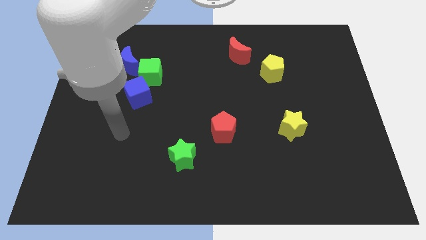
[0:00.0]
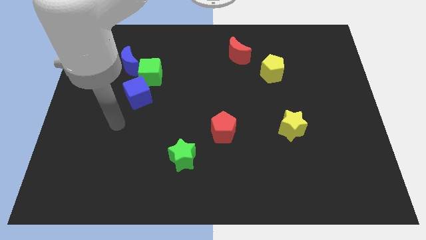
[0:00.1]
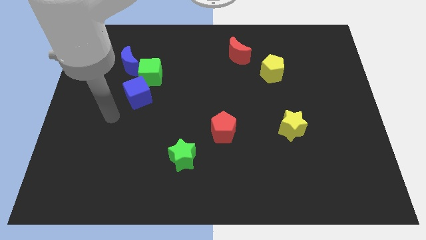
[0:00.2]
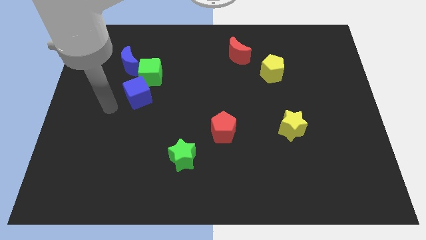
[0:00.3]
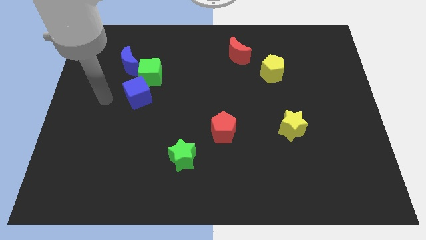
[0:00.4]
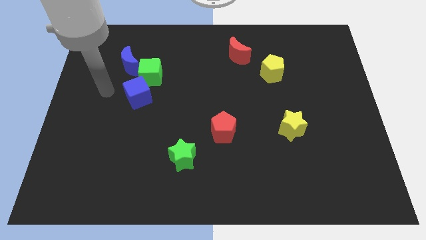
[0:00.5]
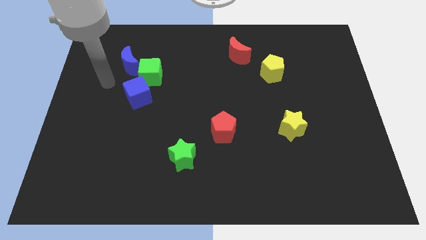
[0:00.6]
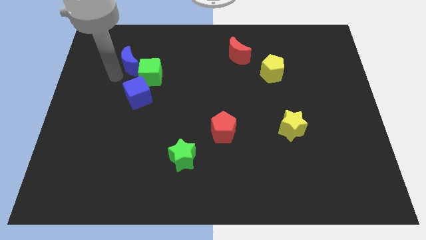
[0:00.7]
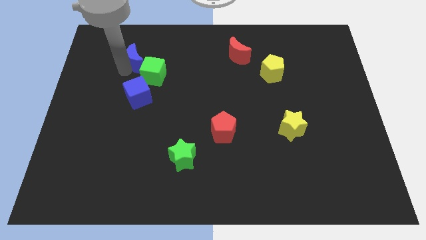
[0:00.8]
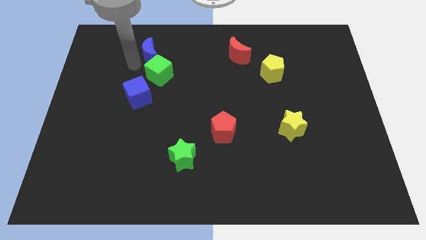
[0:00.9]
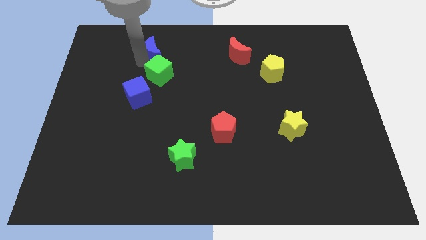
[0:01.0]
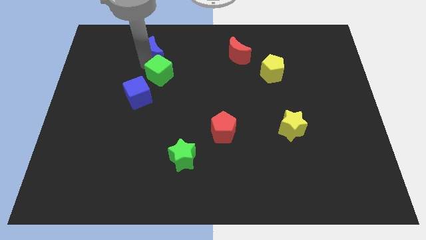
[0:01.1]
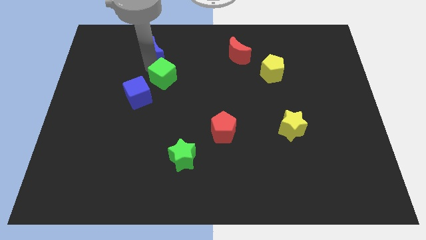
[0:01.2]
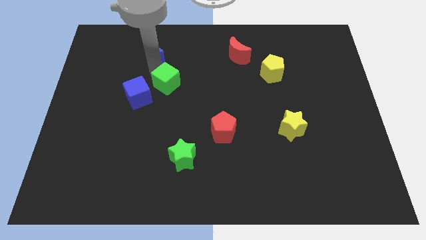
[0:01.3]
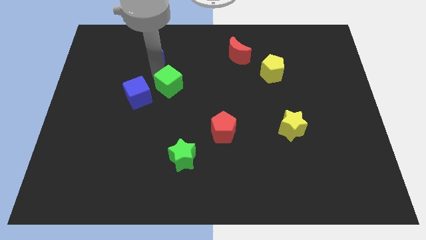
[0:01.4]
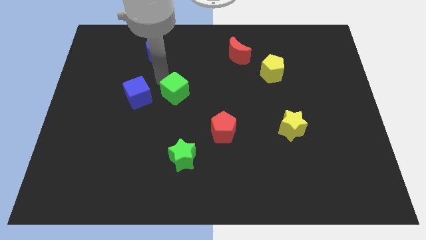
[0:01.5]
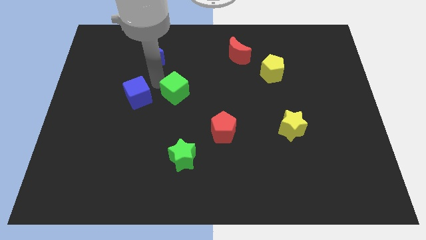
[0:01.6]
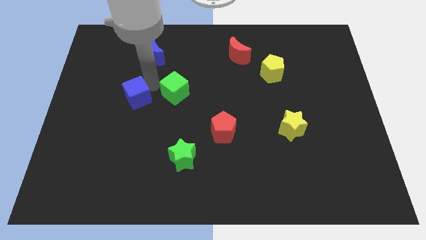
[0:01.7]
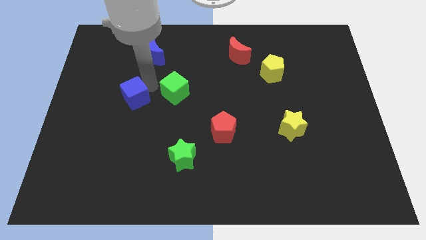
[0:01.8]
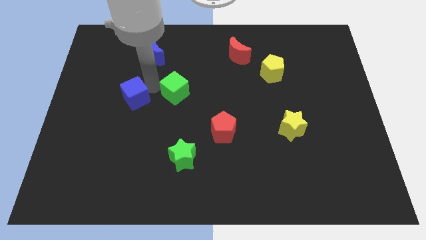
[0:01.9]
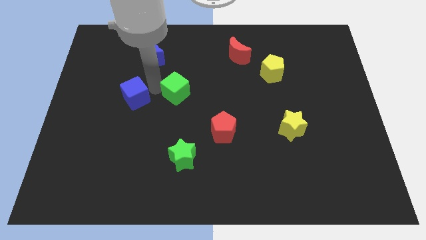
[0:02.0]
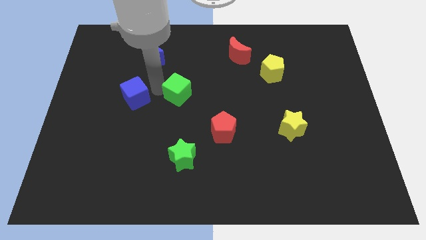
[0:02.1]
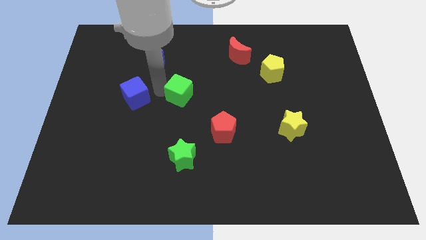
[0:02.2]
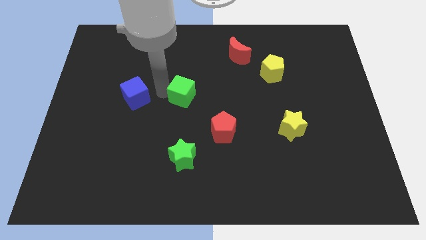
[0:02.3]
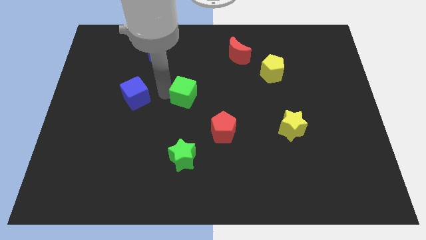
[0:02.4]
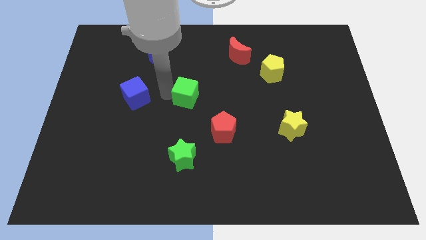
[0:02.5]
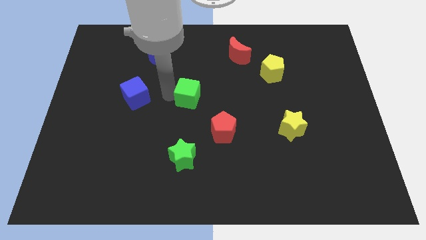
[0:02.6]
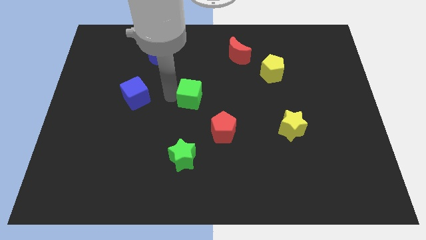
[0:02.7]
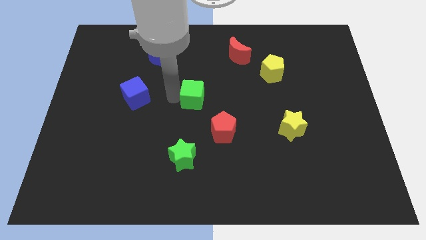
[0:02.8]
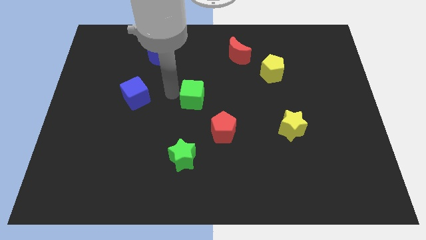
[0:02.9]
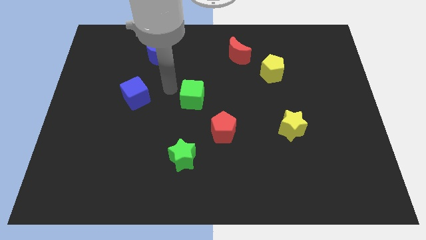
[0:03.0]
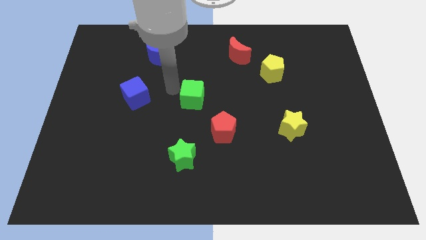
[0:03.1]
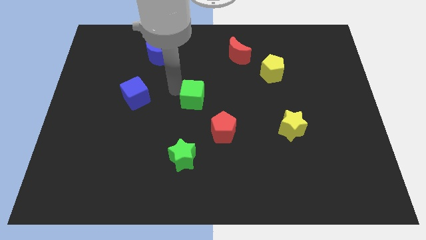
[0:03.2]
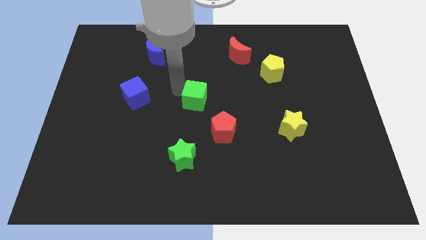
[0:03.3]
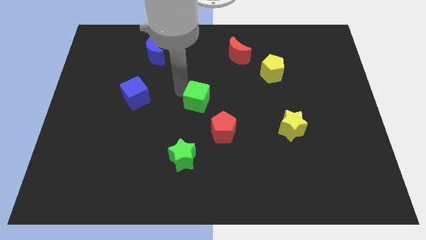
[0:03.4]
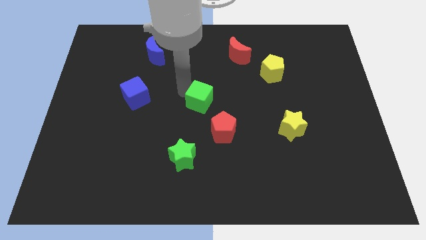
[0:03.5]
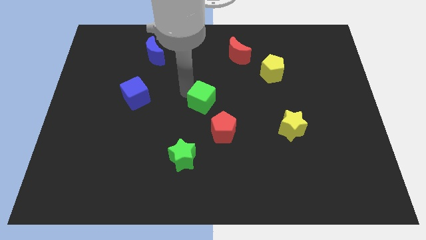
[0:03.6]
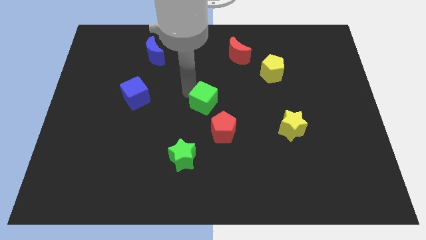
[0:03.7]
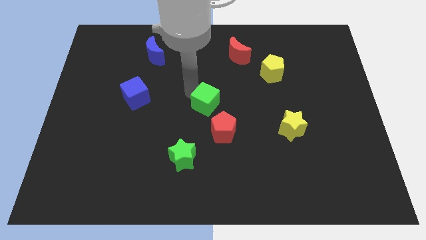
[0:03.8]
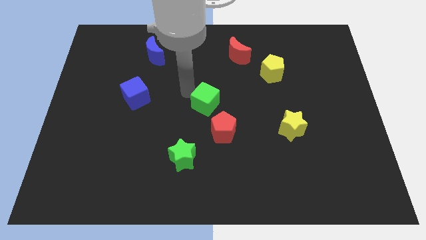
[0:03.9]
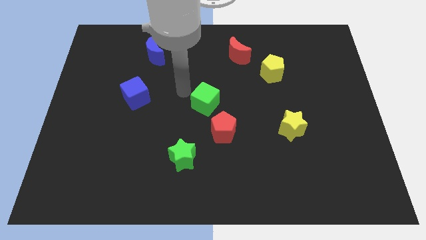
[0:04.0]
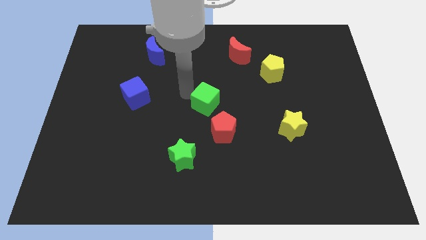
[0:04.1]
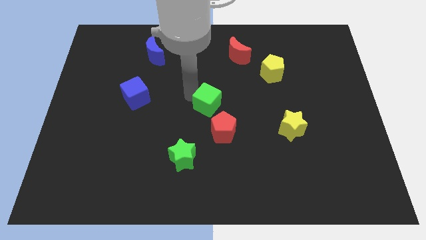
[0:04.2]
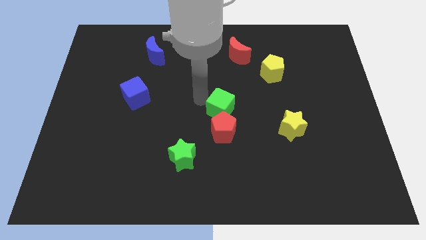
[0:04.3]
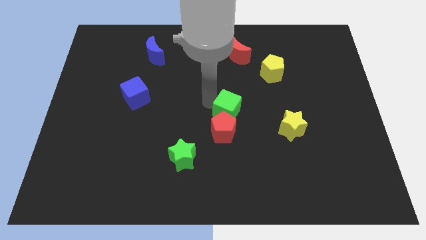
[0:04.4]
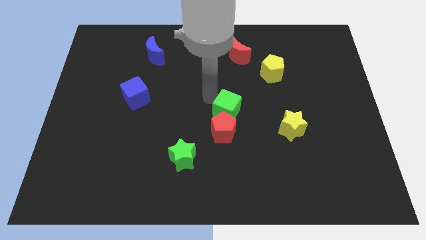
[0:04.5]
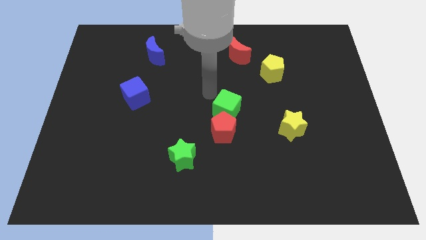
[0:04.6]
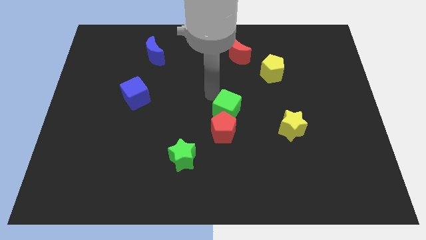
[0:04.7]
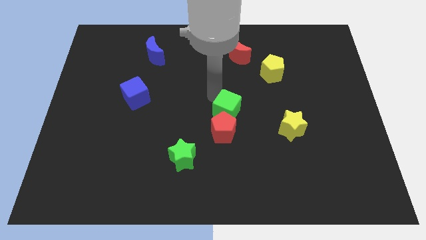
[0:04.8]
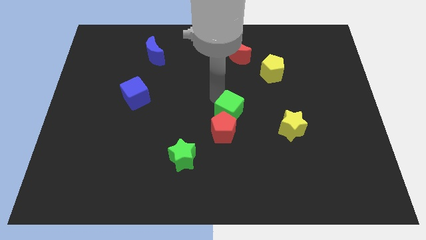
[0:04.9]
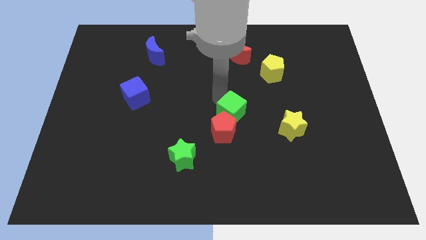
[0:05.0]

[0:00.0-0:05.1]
slide the green cube to the left side of the yellow star

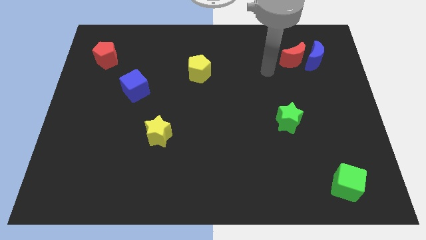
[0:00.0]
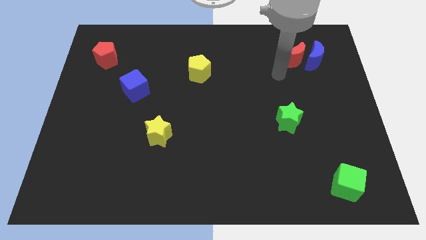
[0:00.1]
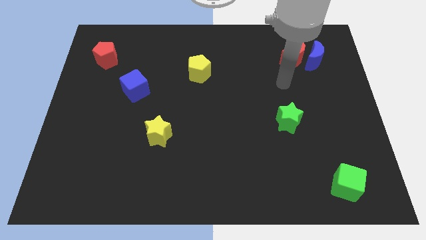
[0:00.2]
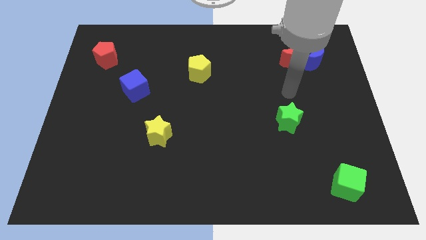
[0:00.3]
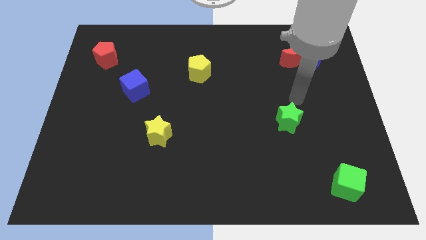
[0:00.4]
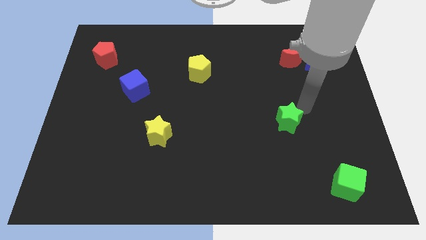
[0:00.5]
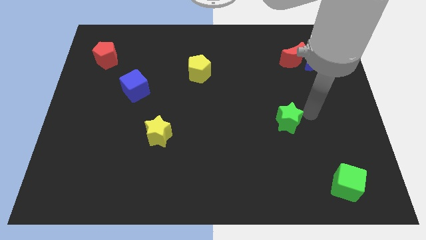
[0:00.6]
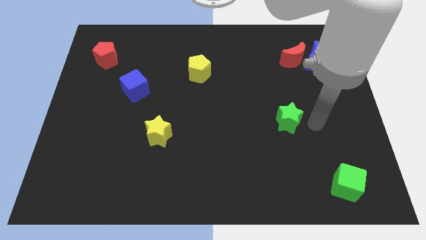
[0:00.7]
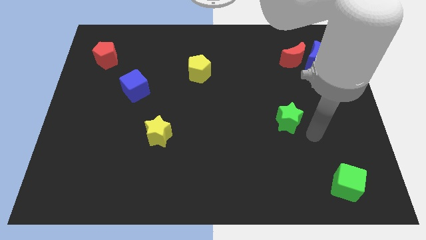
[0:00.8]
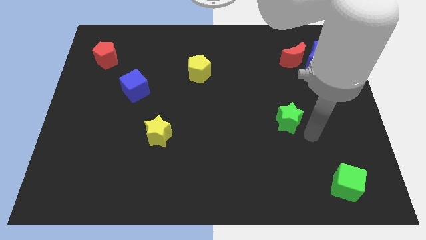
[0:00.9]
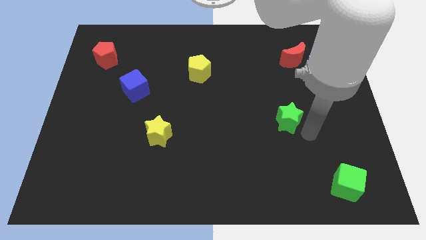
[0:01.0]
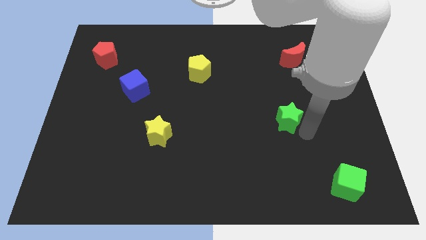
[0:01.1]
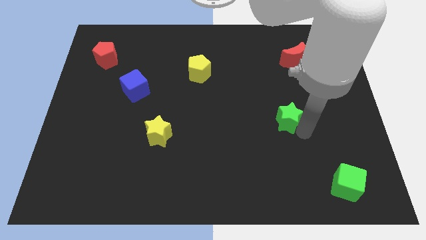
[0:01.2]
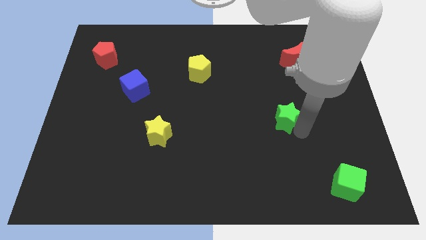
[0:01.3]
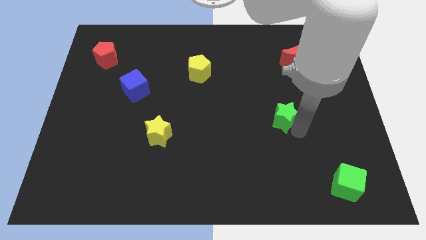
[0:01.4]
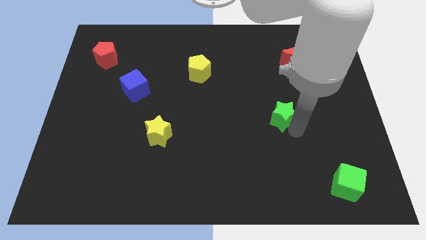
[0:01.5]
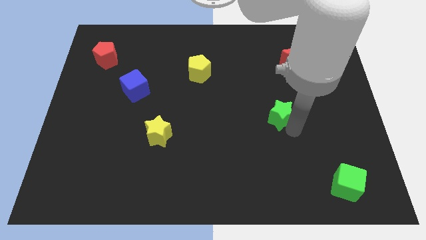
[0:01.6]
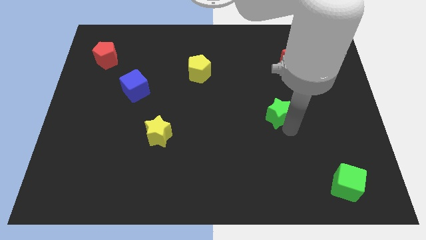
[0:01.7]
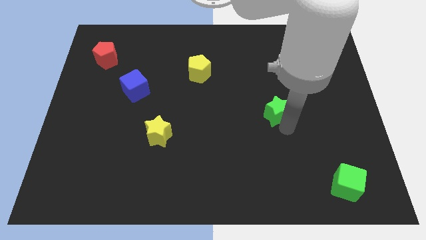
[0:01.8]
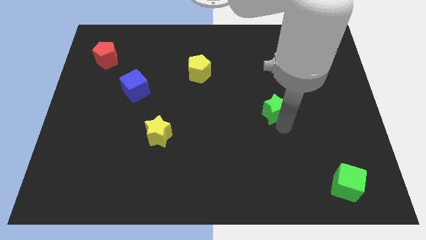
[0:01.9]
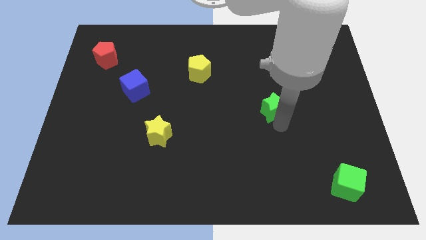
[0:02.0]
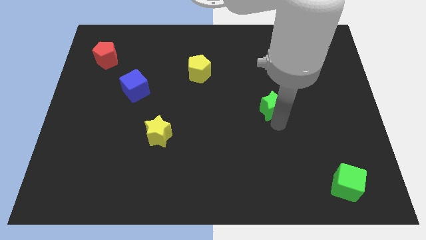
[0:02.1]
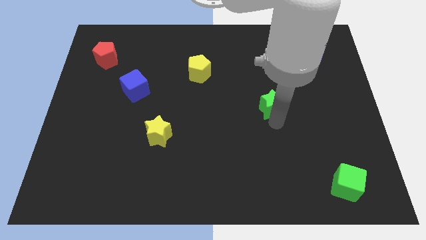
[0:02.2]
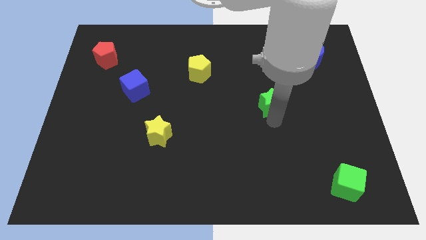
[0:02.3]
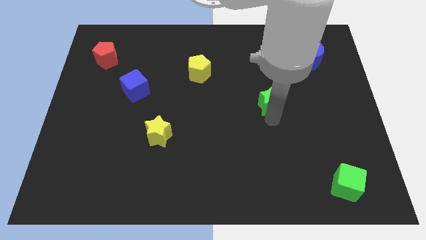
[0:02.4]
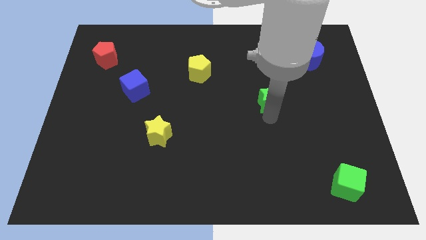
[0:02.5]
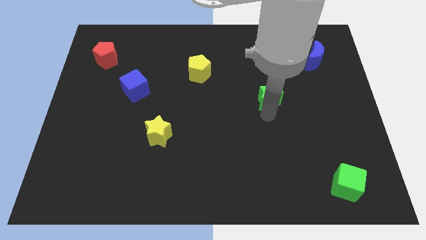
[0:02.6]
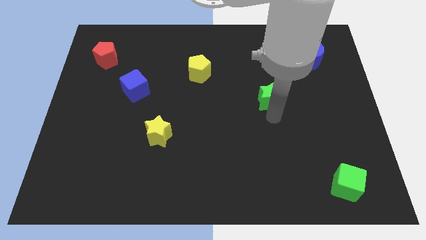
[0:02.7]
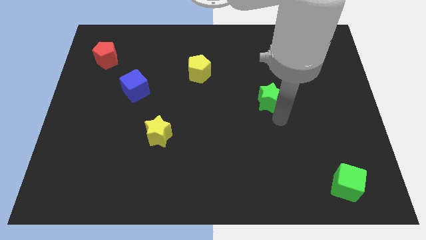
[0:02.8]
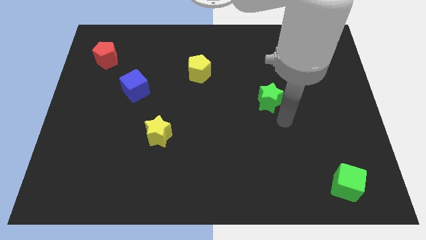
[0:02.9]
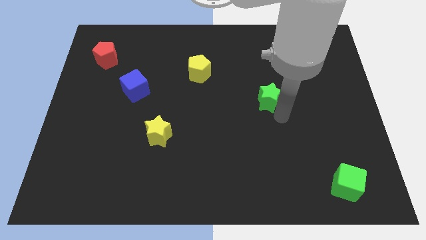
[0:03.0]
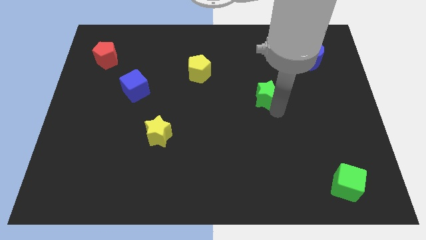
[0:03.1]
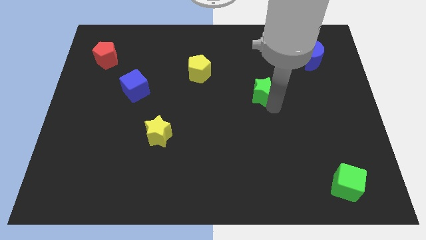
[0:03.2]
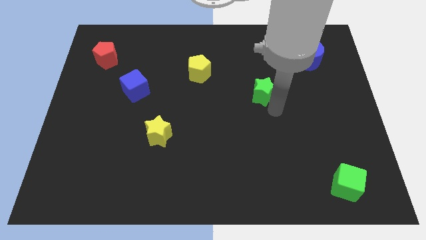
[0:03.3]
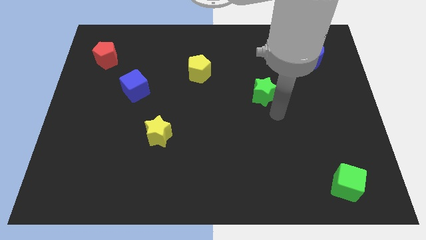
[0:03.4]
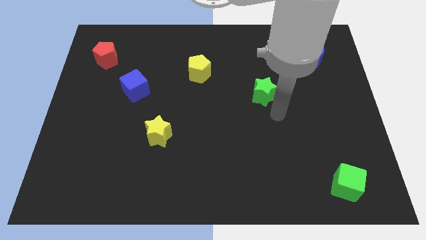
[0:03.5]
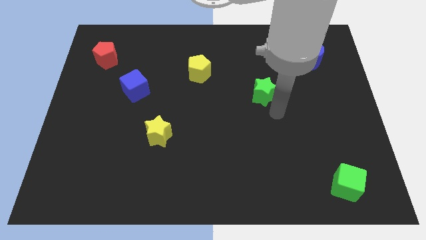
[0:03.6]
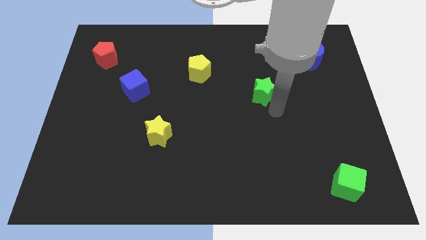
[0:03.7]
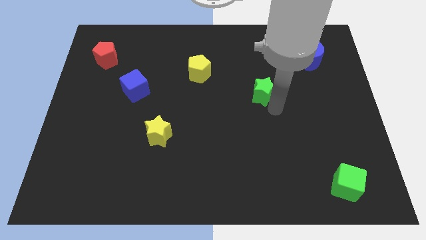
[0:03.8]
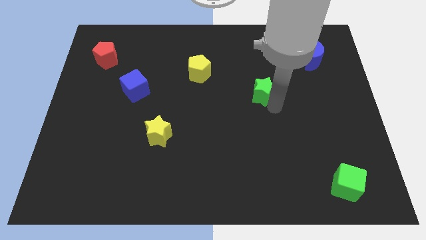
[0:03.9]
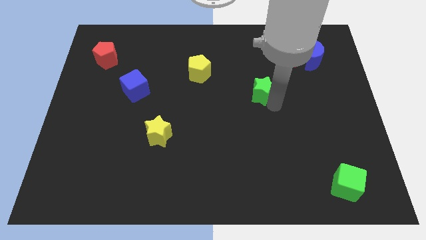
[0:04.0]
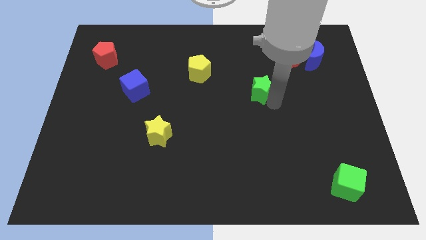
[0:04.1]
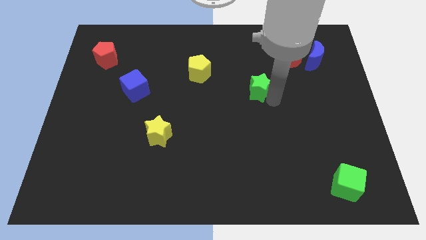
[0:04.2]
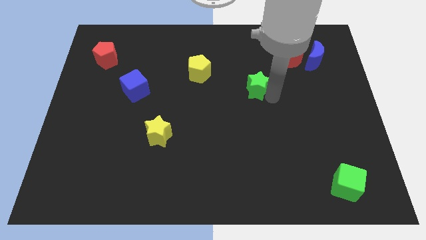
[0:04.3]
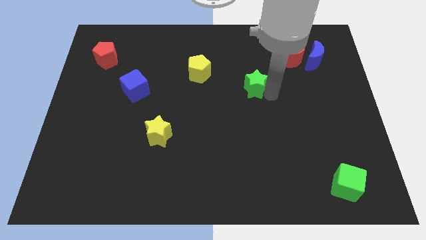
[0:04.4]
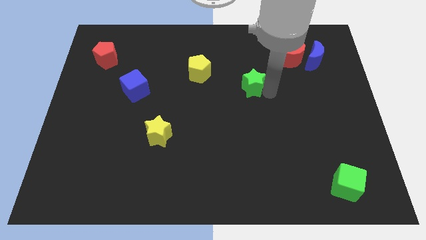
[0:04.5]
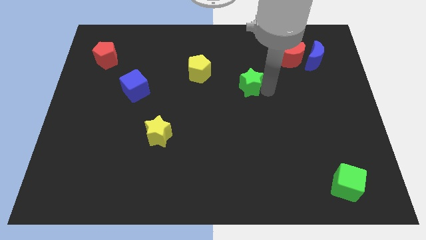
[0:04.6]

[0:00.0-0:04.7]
slide the green star right of the yellow pentagon
